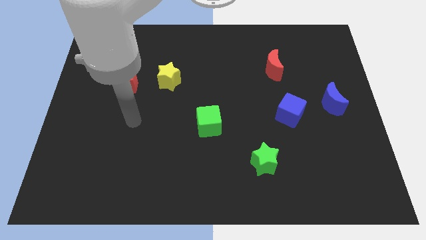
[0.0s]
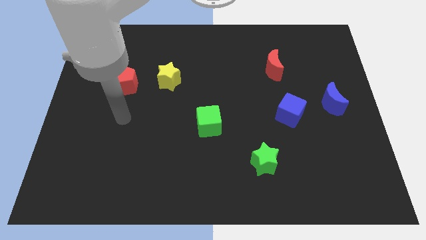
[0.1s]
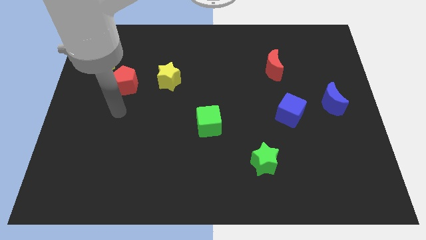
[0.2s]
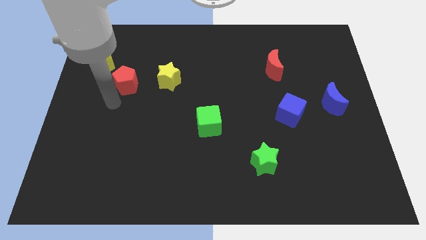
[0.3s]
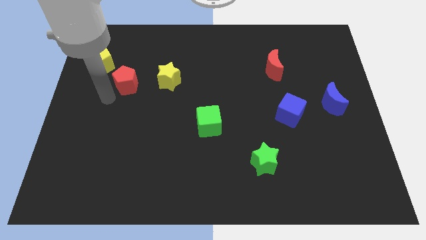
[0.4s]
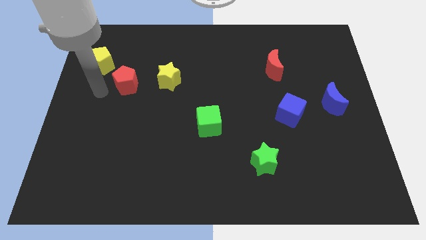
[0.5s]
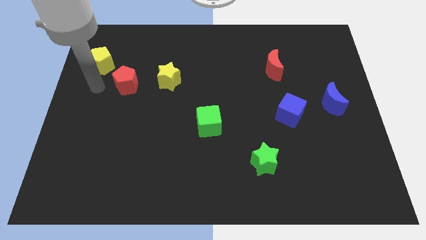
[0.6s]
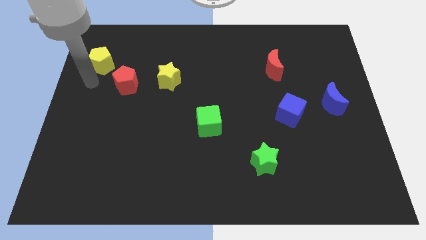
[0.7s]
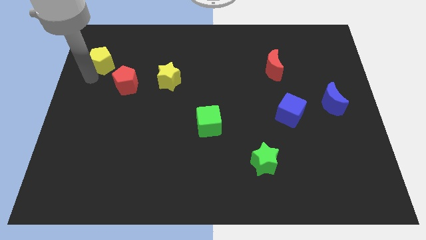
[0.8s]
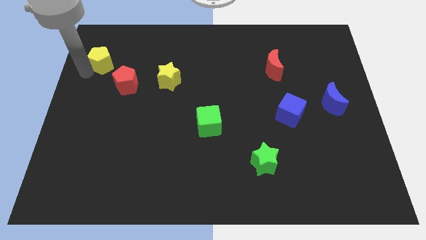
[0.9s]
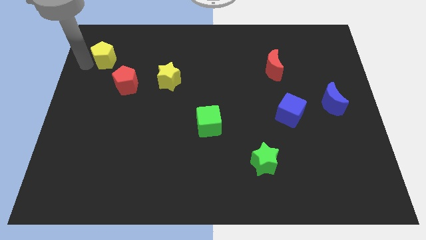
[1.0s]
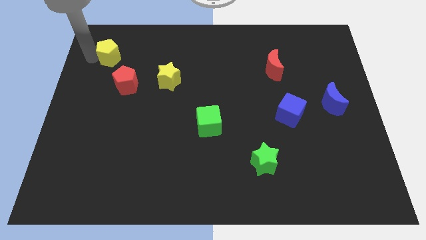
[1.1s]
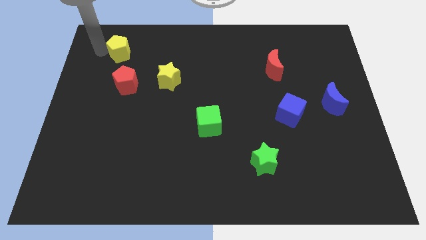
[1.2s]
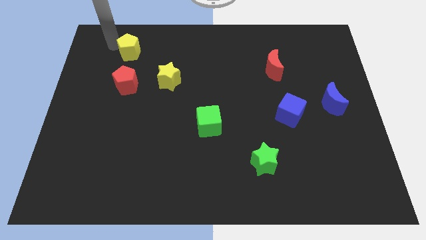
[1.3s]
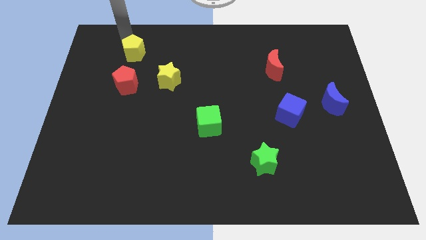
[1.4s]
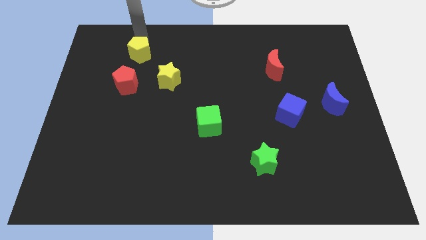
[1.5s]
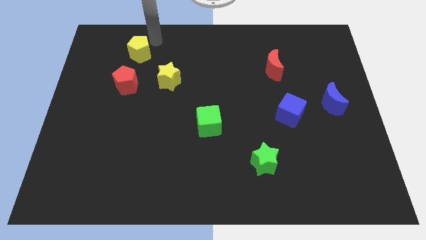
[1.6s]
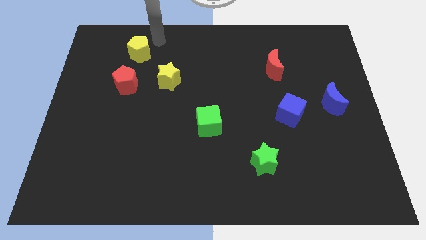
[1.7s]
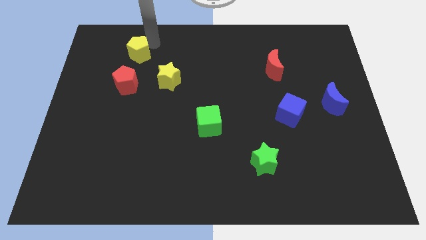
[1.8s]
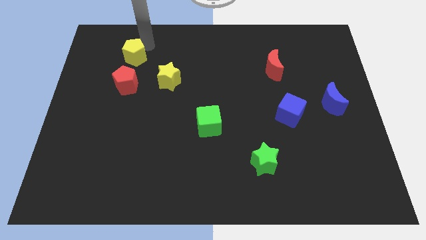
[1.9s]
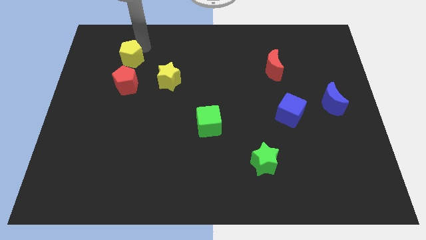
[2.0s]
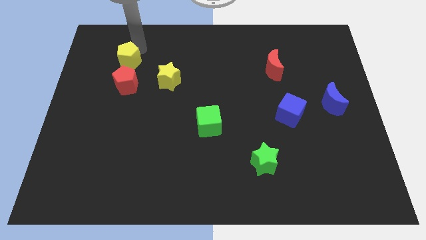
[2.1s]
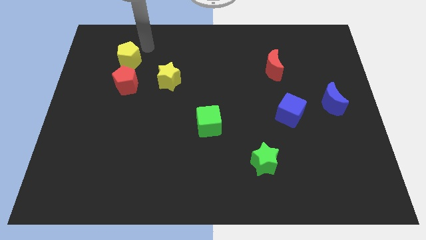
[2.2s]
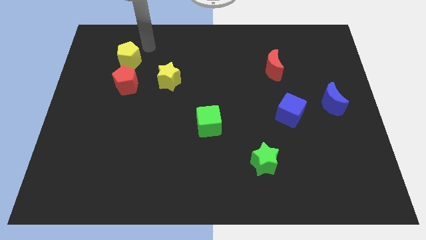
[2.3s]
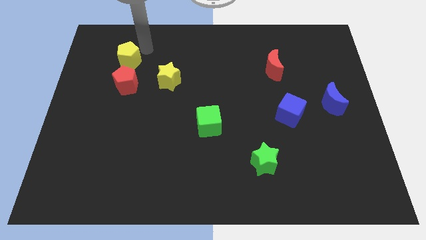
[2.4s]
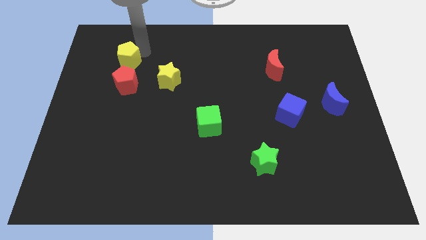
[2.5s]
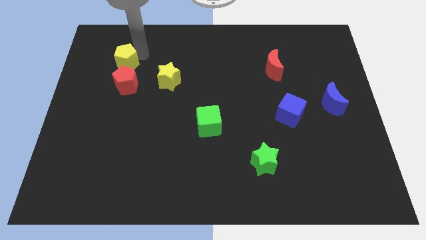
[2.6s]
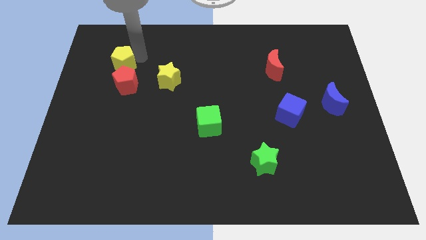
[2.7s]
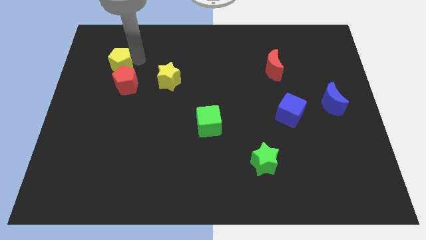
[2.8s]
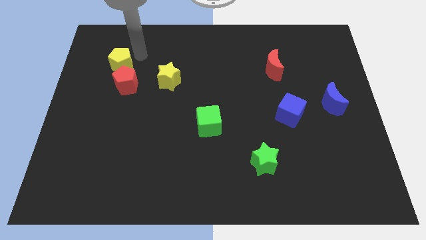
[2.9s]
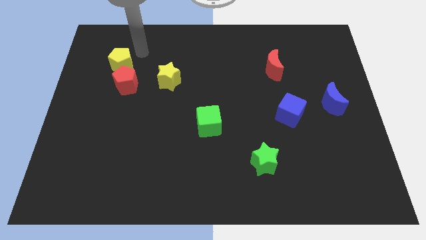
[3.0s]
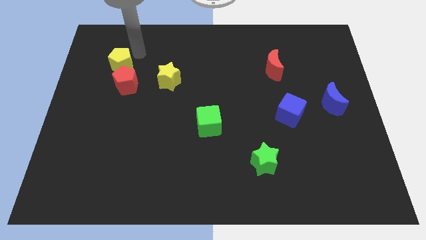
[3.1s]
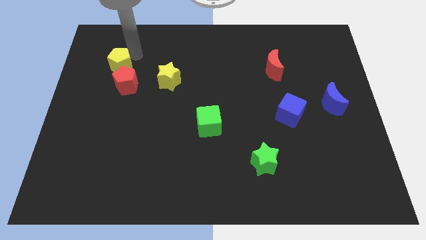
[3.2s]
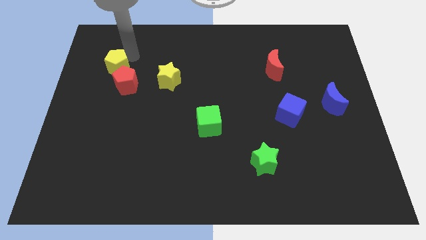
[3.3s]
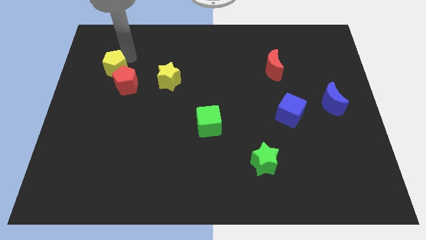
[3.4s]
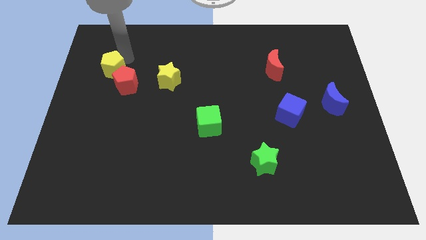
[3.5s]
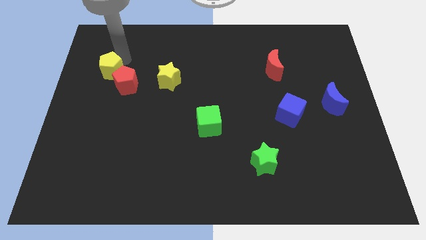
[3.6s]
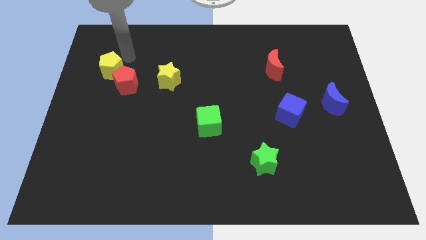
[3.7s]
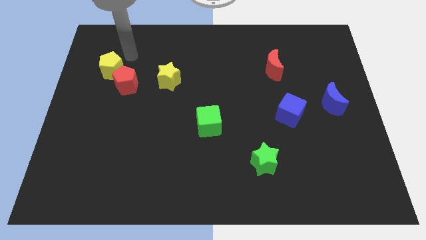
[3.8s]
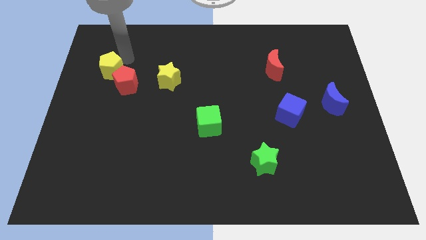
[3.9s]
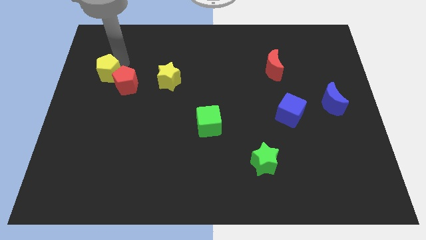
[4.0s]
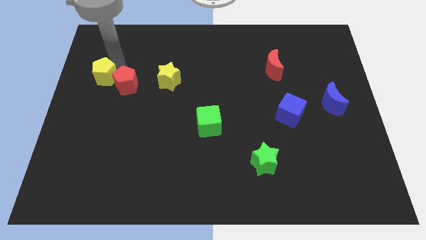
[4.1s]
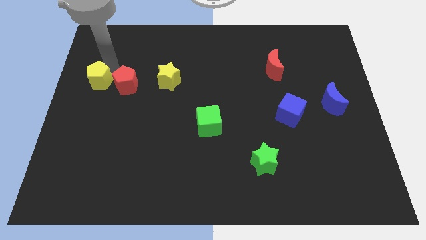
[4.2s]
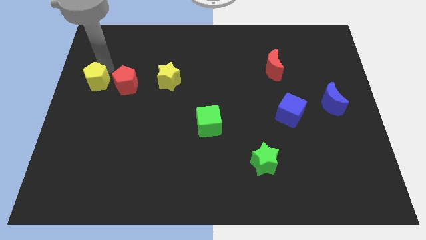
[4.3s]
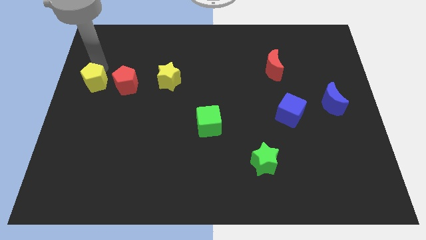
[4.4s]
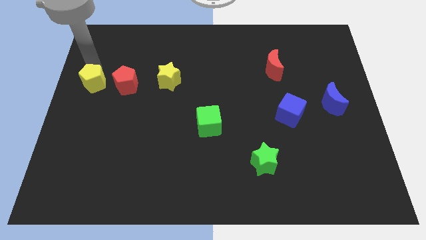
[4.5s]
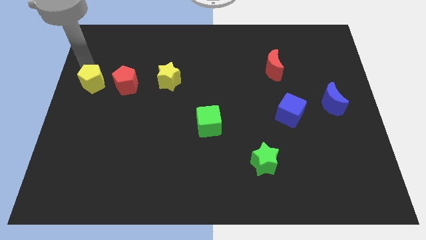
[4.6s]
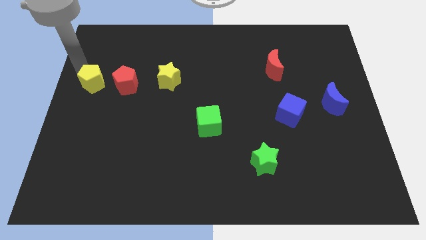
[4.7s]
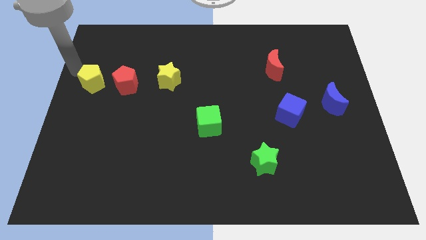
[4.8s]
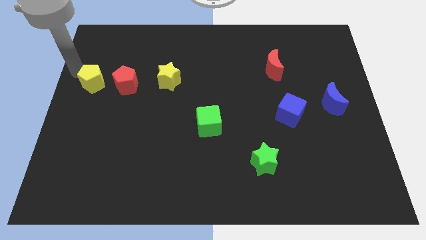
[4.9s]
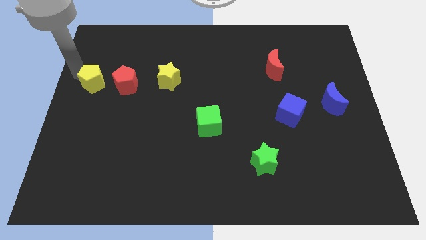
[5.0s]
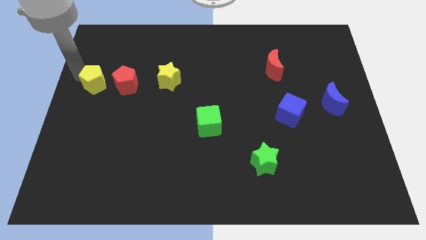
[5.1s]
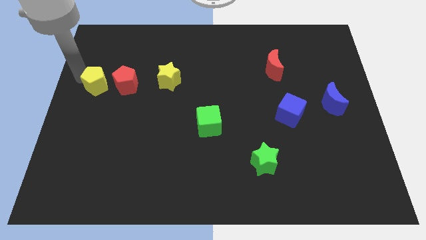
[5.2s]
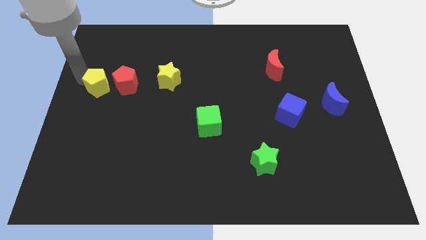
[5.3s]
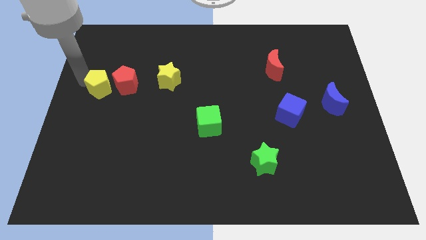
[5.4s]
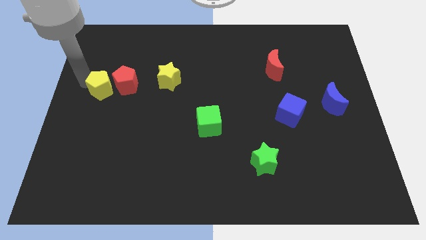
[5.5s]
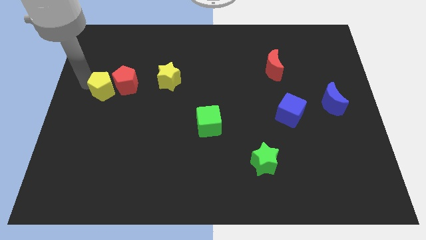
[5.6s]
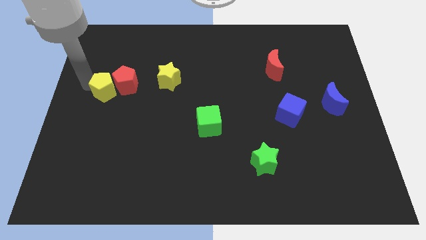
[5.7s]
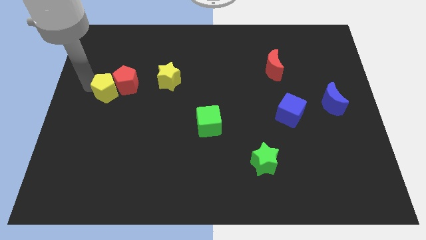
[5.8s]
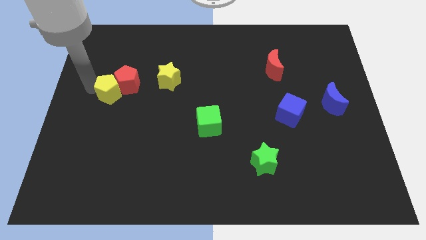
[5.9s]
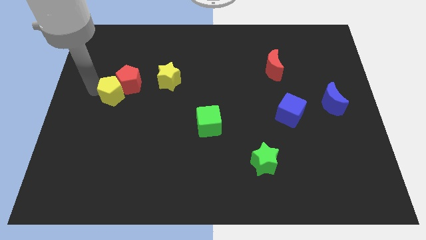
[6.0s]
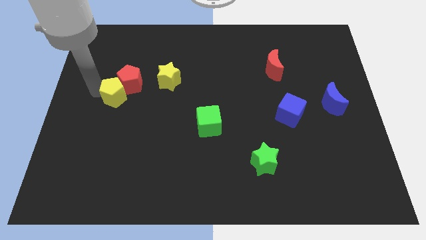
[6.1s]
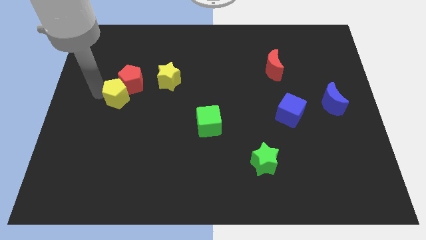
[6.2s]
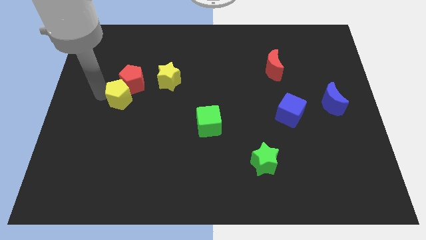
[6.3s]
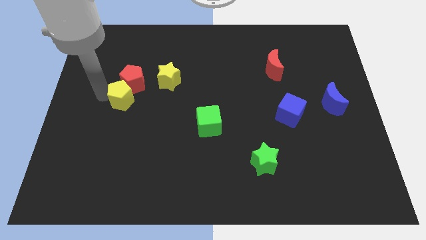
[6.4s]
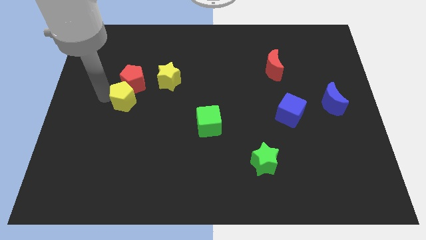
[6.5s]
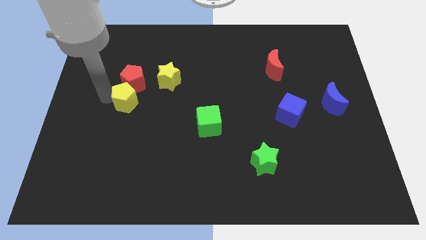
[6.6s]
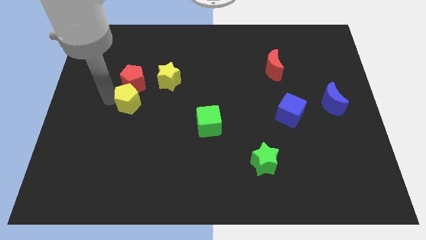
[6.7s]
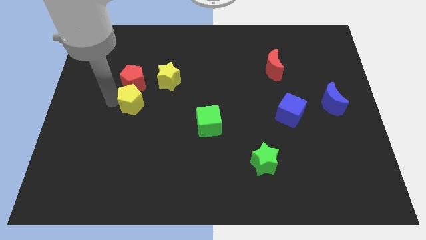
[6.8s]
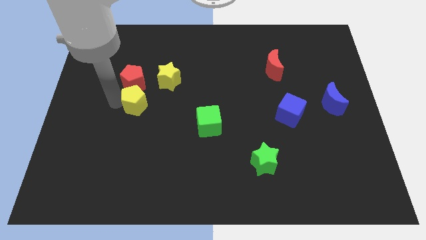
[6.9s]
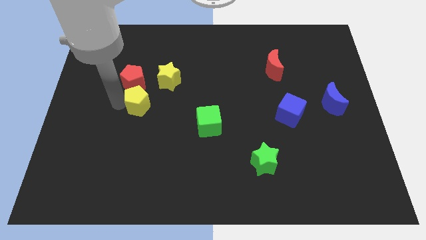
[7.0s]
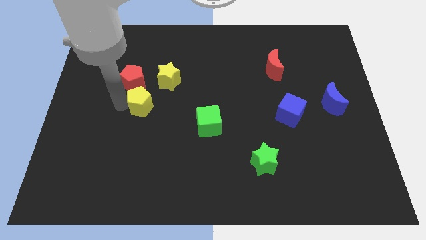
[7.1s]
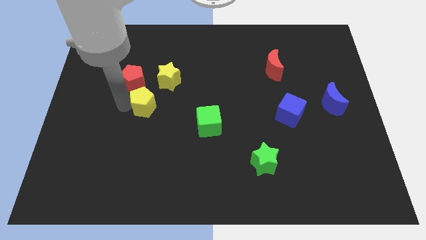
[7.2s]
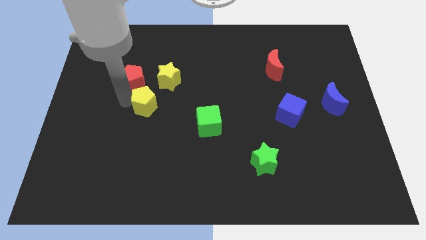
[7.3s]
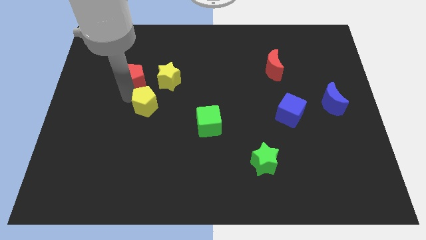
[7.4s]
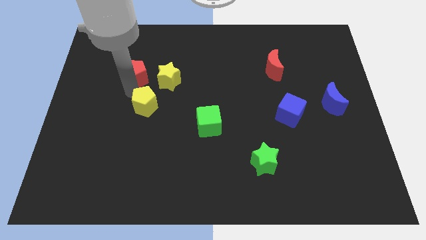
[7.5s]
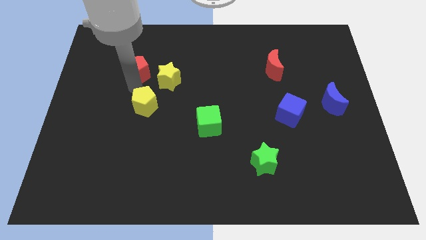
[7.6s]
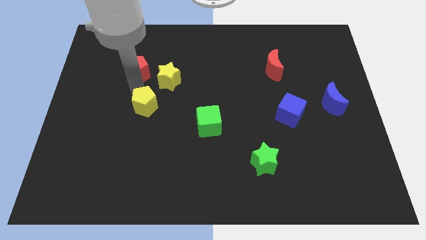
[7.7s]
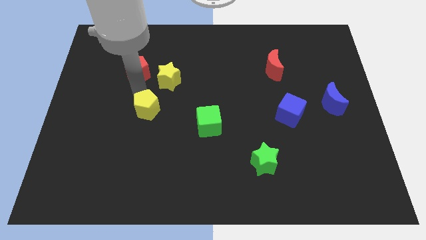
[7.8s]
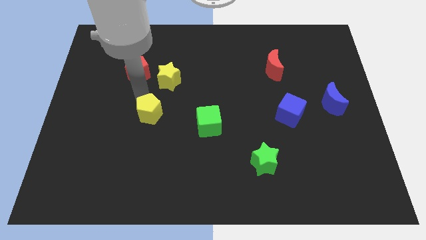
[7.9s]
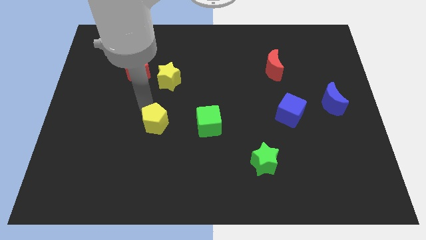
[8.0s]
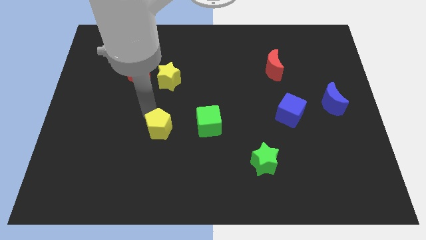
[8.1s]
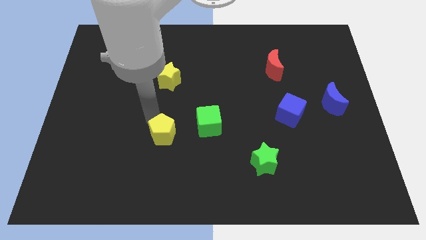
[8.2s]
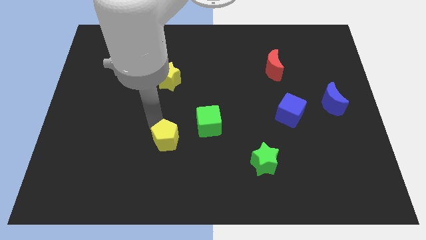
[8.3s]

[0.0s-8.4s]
slide the yellow pentagon diagonally down and to the left of the green cube
